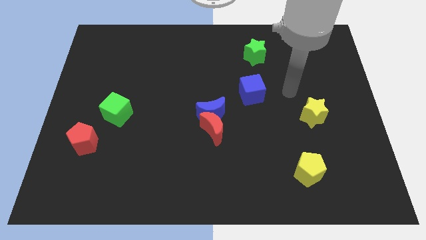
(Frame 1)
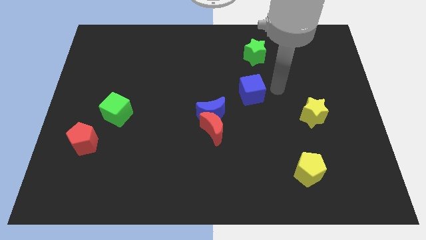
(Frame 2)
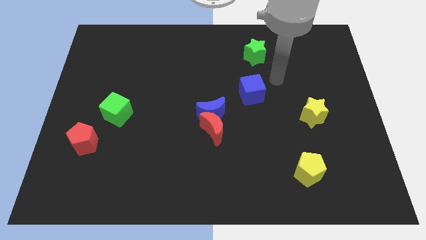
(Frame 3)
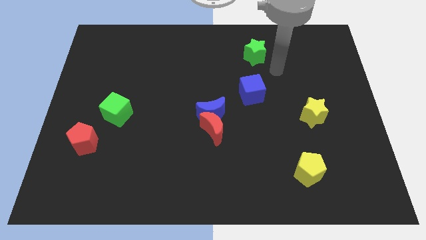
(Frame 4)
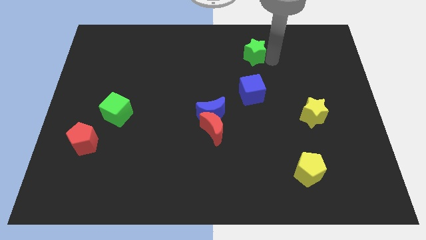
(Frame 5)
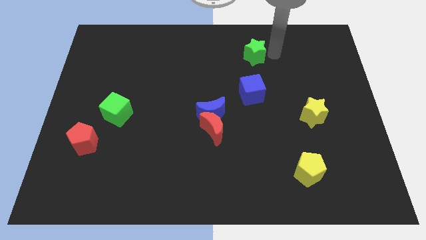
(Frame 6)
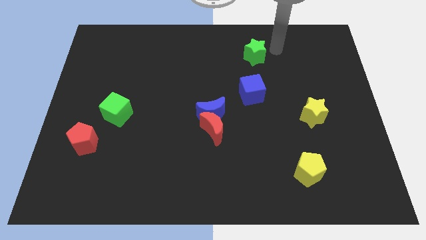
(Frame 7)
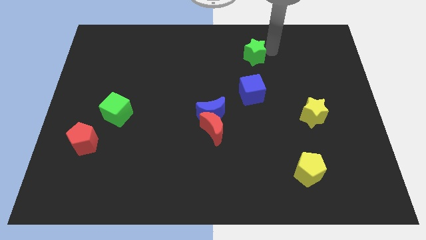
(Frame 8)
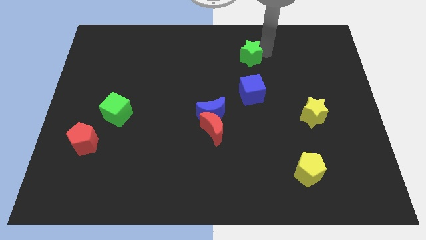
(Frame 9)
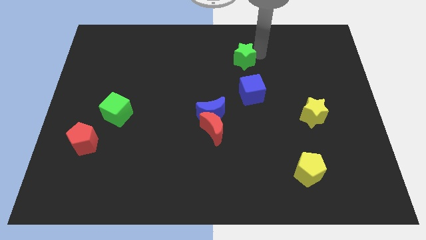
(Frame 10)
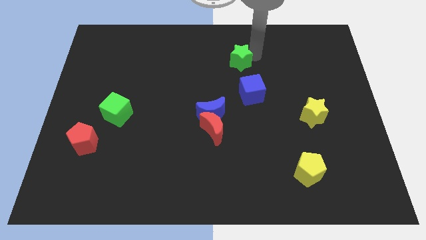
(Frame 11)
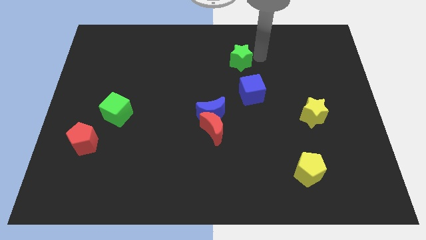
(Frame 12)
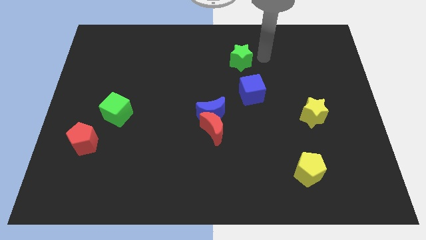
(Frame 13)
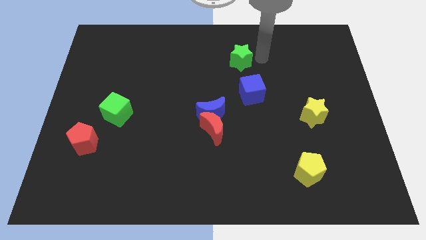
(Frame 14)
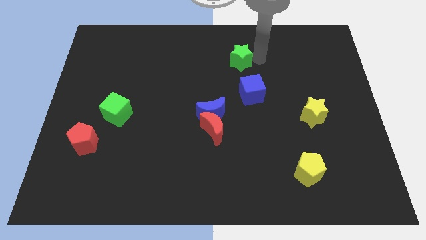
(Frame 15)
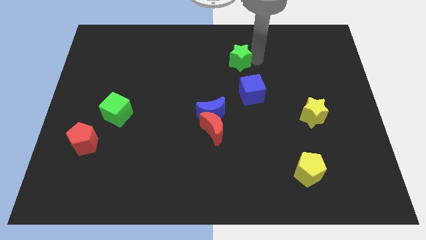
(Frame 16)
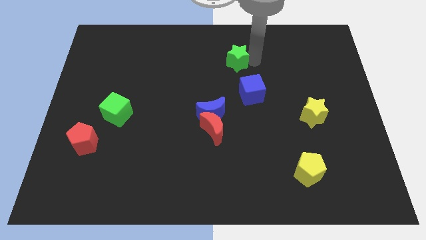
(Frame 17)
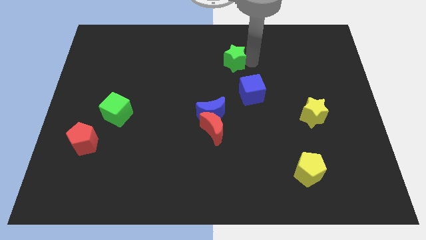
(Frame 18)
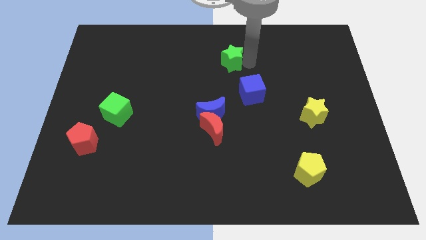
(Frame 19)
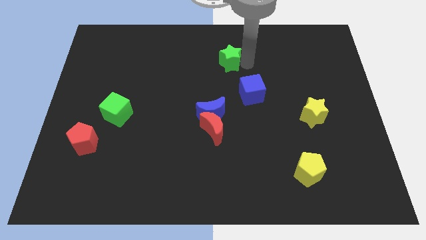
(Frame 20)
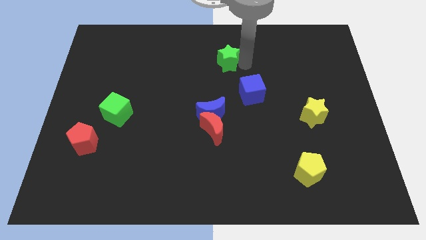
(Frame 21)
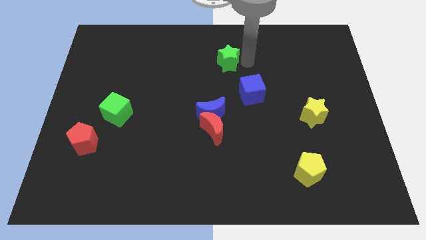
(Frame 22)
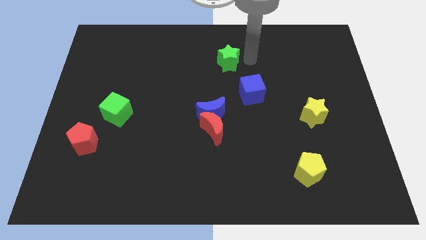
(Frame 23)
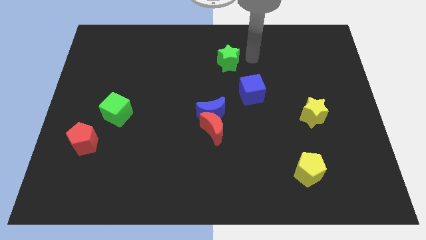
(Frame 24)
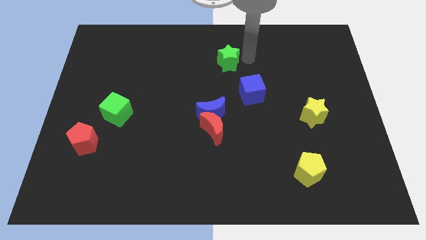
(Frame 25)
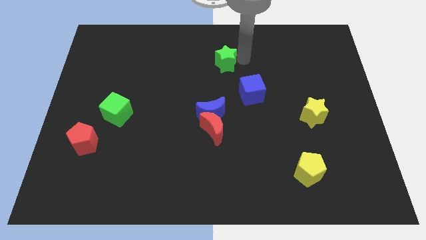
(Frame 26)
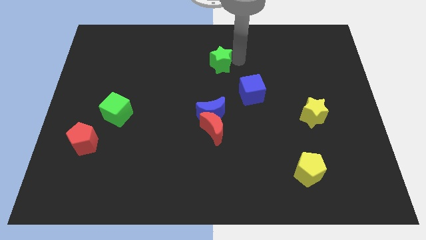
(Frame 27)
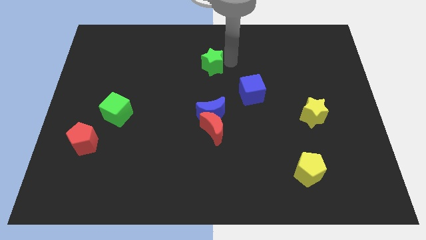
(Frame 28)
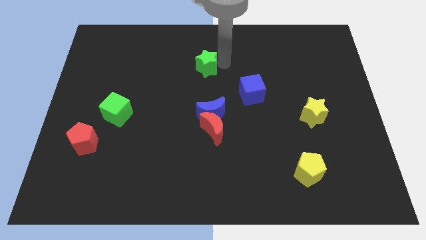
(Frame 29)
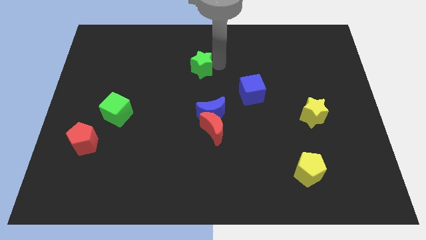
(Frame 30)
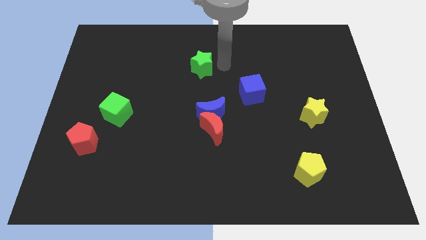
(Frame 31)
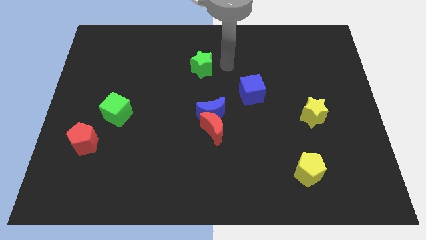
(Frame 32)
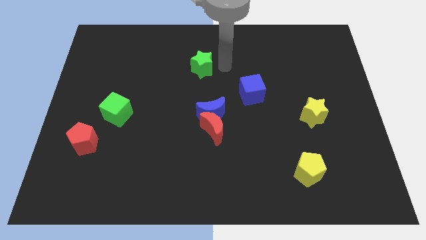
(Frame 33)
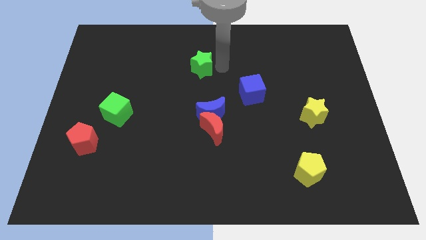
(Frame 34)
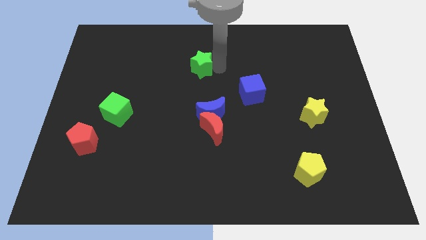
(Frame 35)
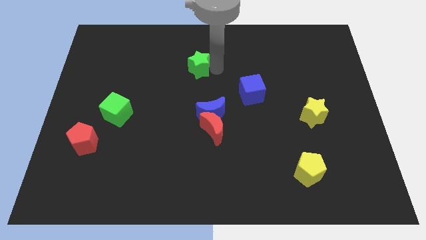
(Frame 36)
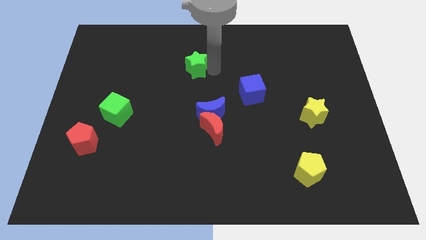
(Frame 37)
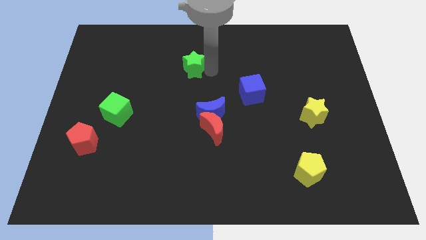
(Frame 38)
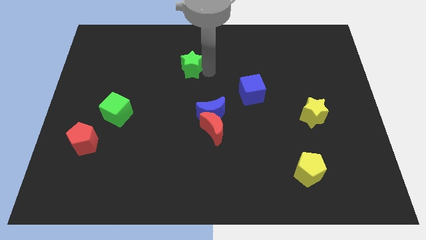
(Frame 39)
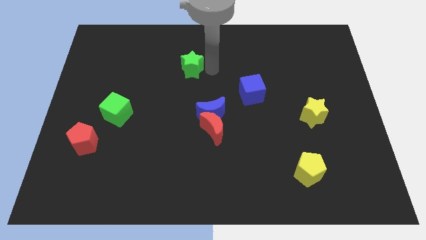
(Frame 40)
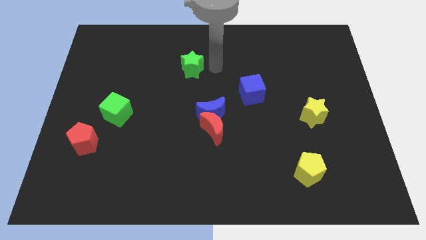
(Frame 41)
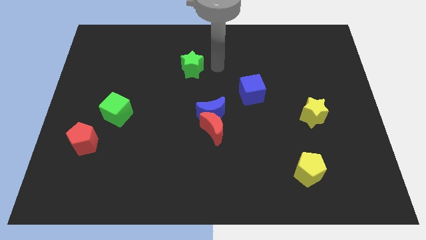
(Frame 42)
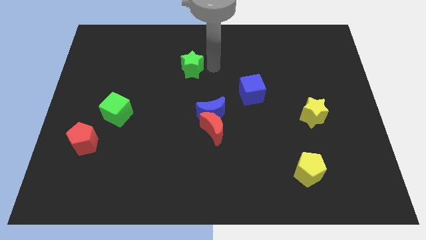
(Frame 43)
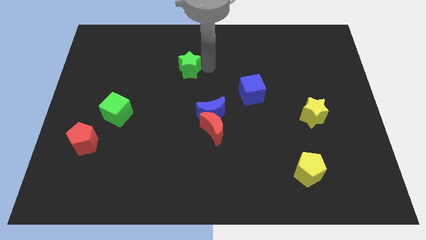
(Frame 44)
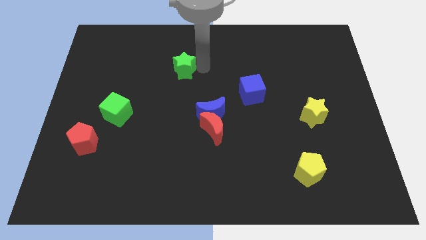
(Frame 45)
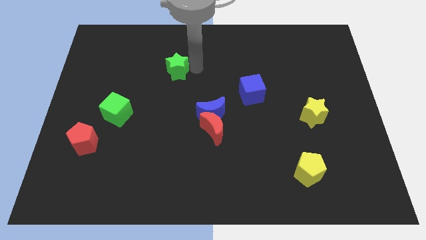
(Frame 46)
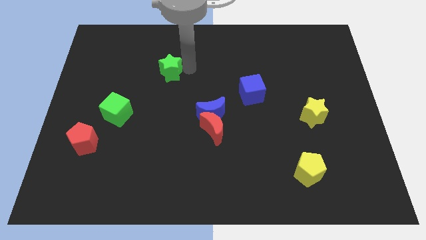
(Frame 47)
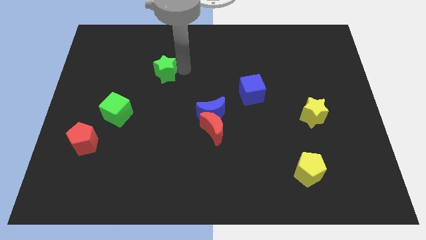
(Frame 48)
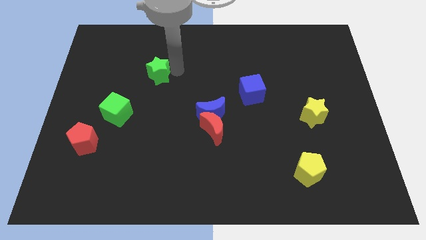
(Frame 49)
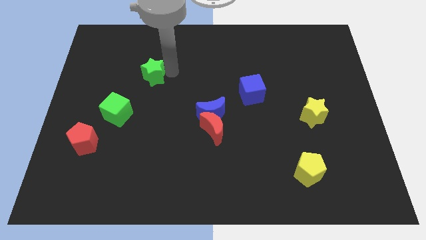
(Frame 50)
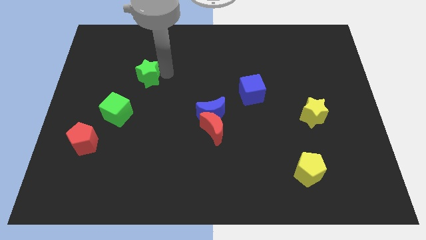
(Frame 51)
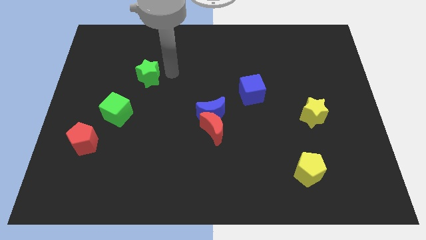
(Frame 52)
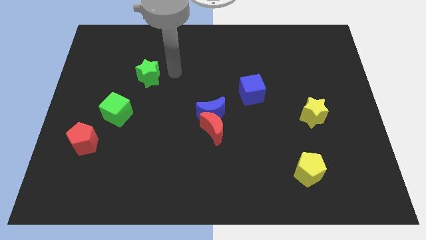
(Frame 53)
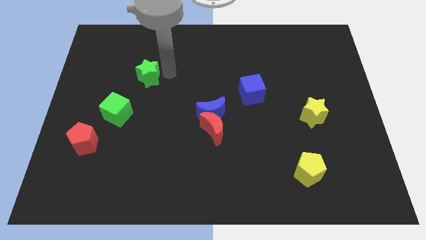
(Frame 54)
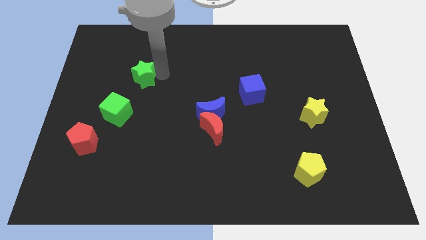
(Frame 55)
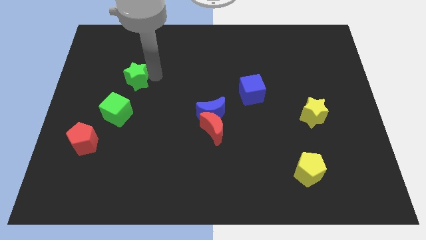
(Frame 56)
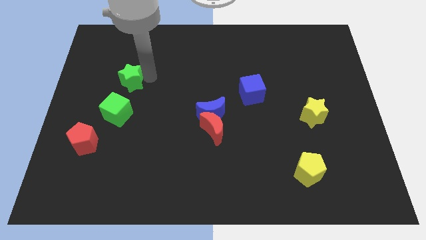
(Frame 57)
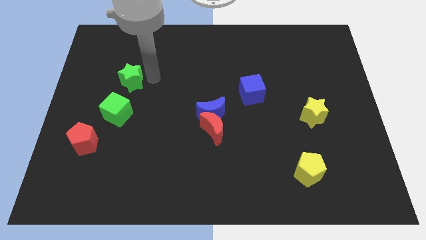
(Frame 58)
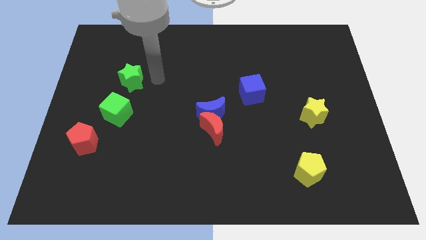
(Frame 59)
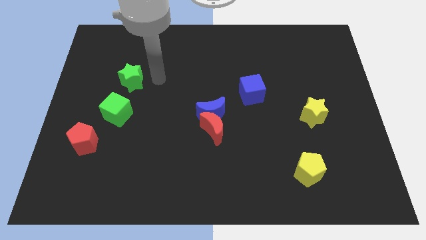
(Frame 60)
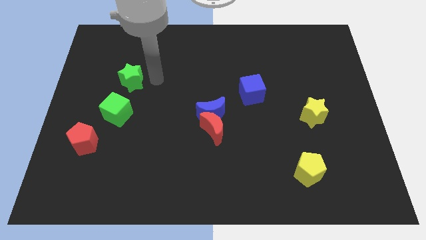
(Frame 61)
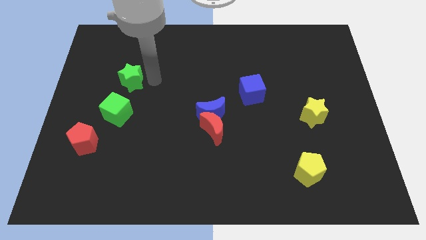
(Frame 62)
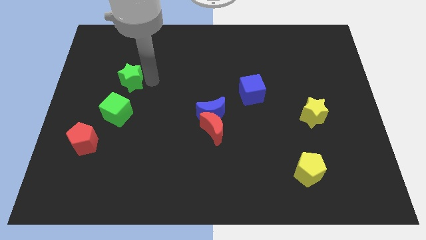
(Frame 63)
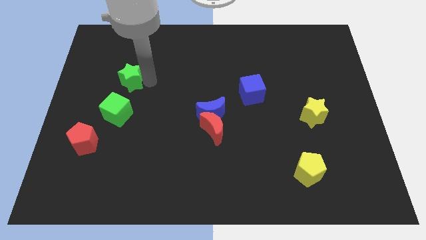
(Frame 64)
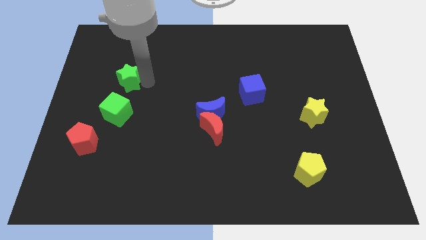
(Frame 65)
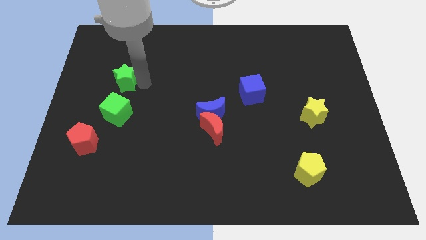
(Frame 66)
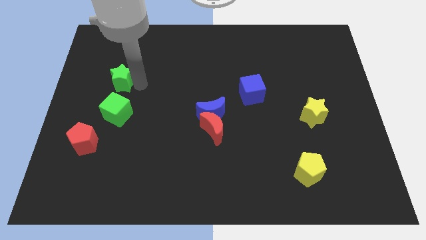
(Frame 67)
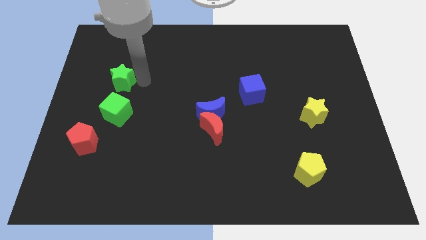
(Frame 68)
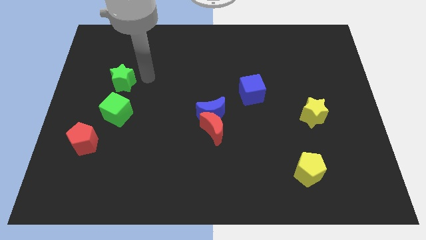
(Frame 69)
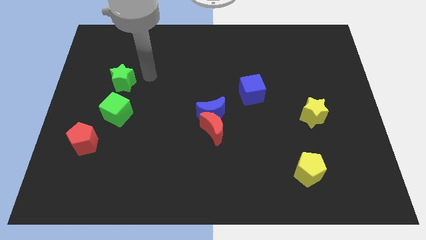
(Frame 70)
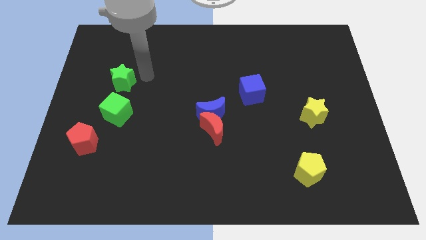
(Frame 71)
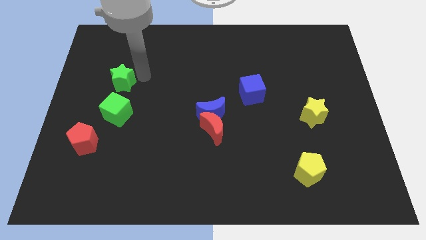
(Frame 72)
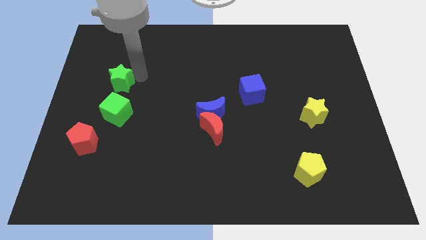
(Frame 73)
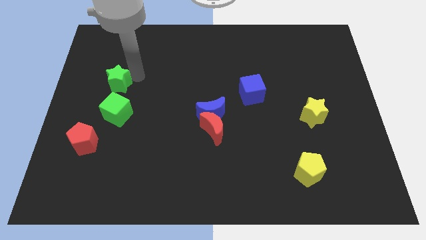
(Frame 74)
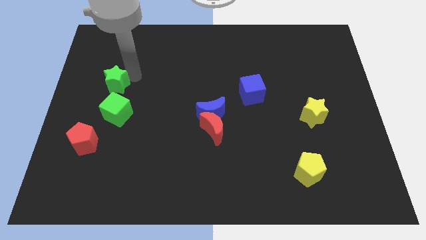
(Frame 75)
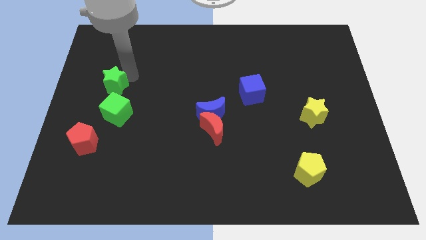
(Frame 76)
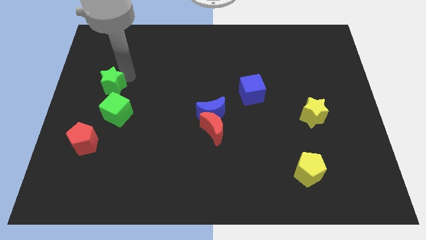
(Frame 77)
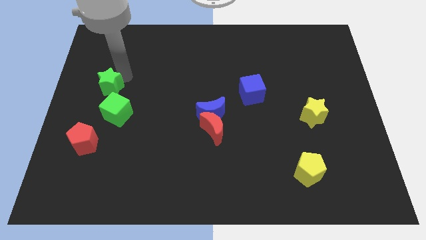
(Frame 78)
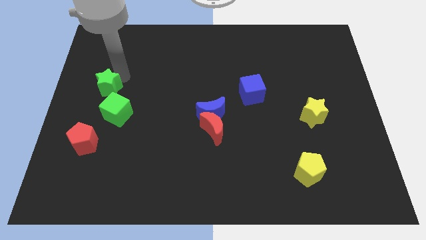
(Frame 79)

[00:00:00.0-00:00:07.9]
slide the green star to the left side of the board
